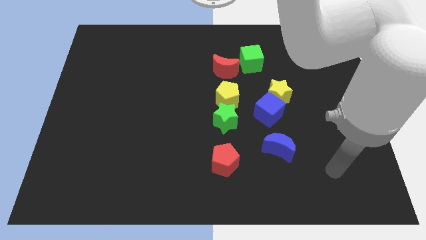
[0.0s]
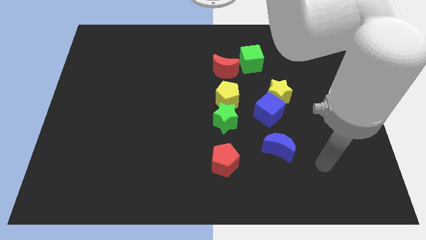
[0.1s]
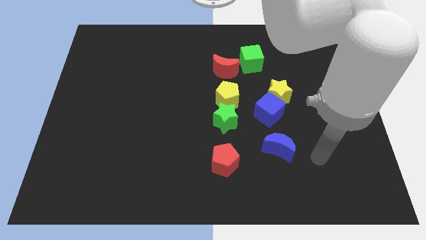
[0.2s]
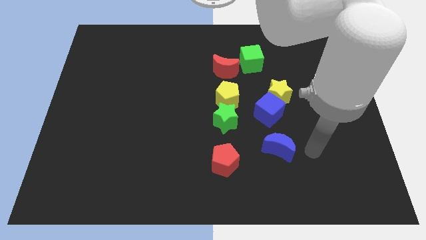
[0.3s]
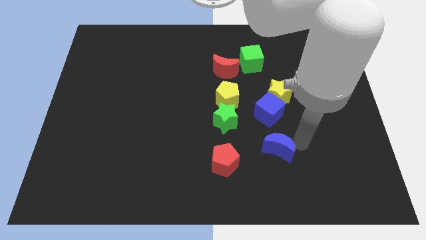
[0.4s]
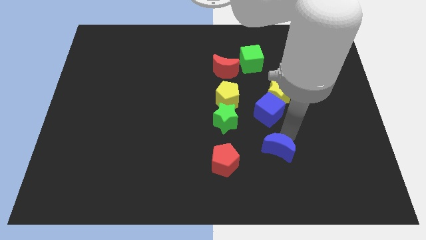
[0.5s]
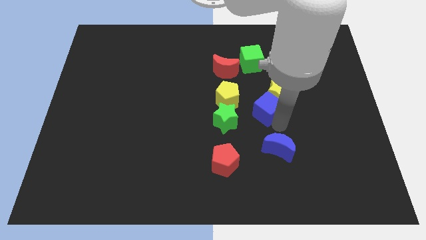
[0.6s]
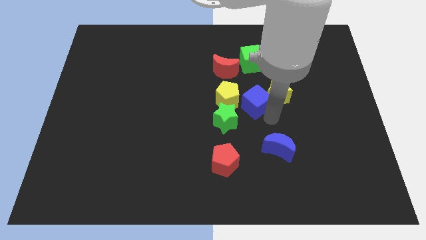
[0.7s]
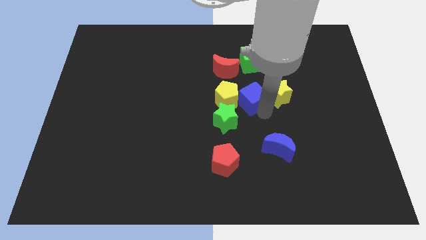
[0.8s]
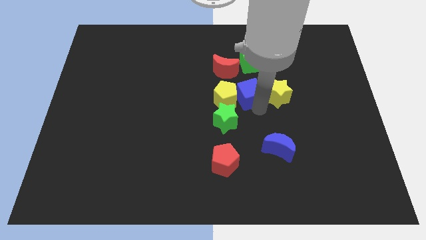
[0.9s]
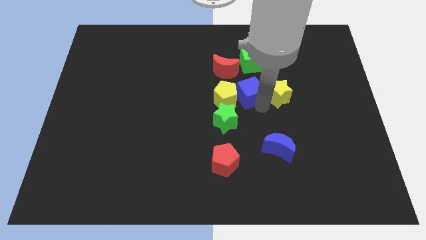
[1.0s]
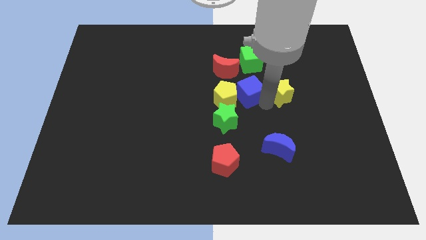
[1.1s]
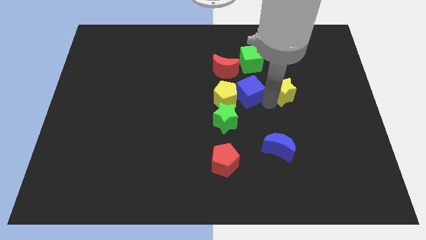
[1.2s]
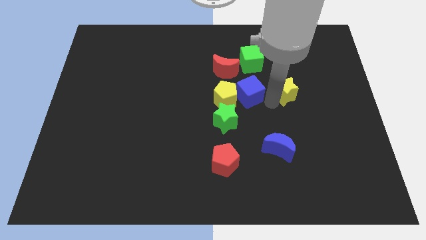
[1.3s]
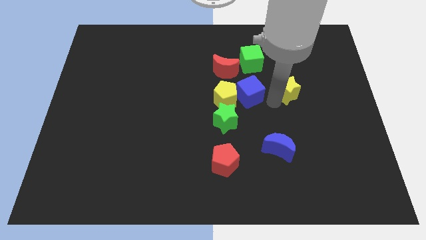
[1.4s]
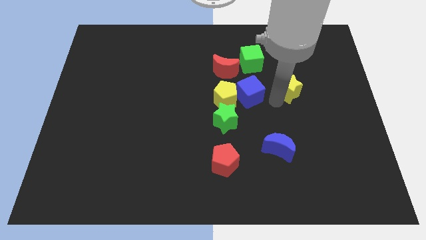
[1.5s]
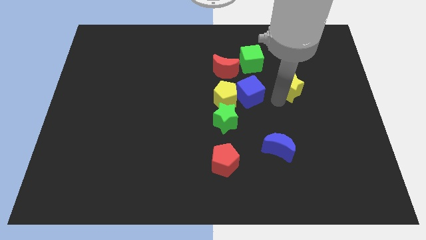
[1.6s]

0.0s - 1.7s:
move the yellow star away from the blue cube

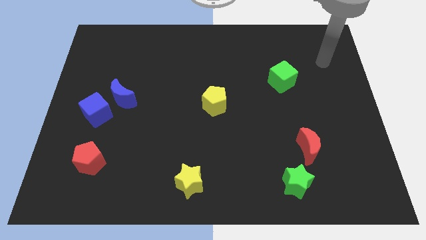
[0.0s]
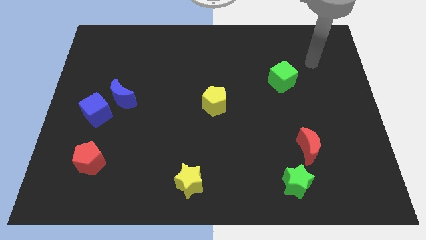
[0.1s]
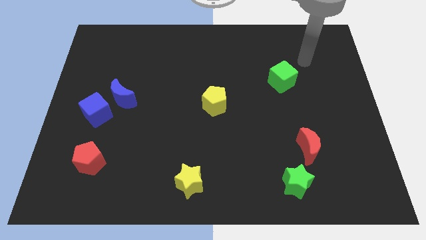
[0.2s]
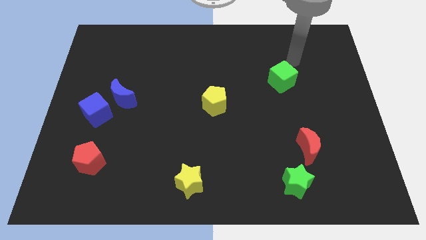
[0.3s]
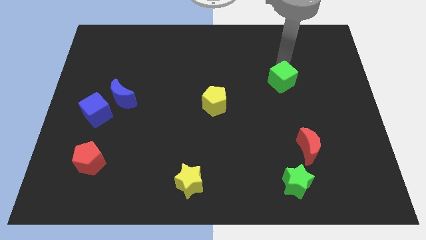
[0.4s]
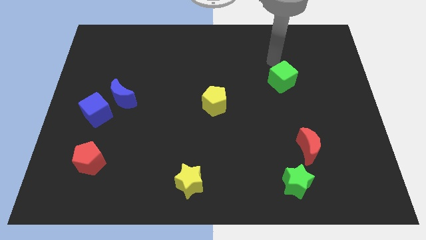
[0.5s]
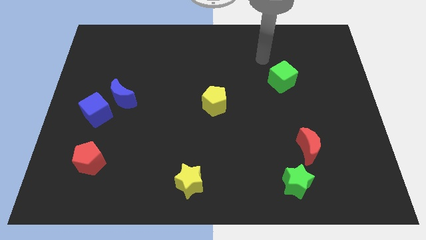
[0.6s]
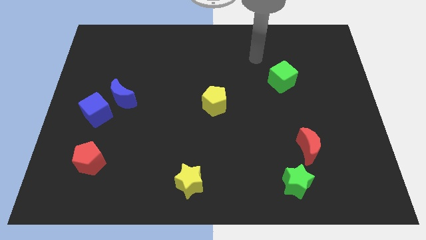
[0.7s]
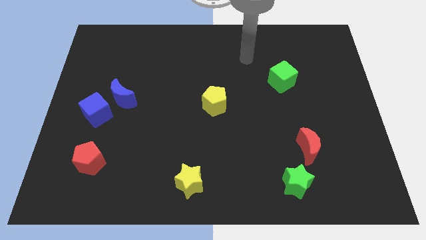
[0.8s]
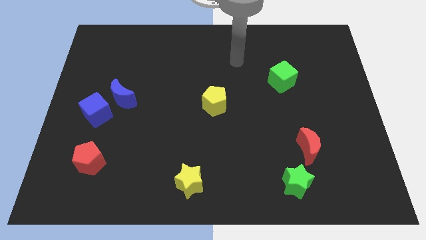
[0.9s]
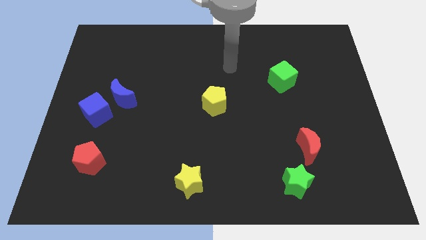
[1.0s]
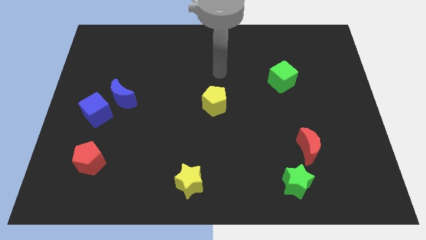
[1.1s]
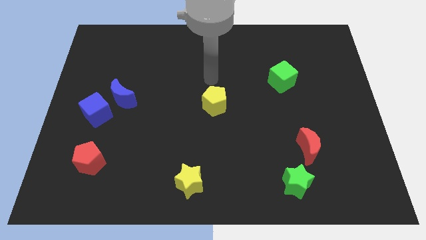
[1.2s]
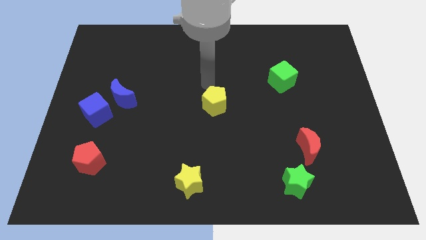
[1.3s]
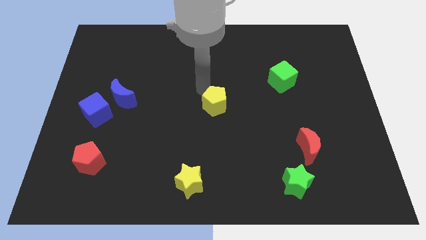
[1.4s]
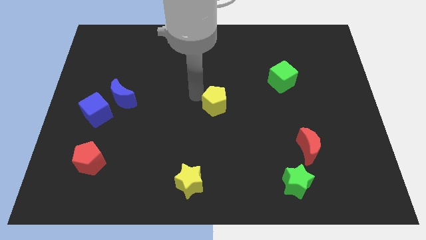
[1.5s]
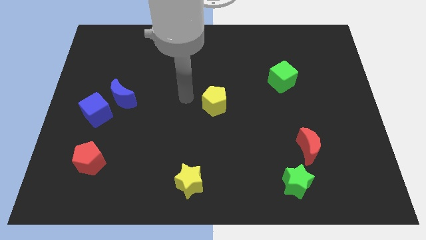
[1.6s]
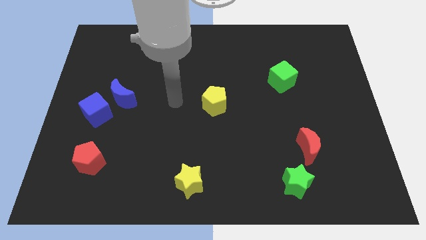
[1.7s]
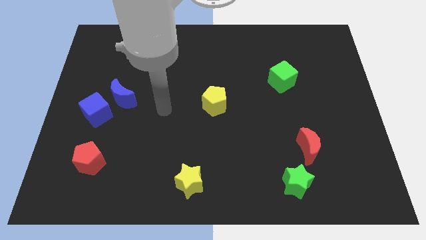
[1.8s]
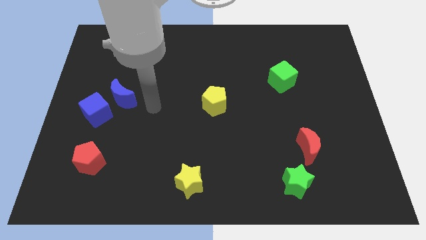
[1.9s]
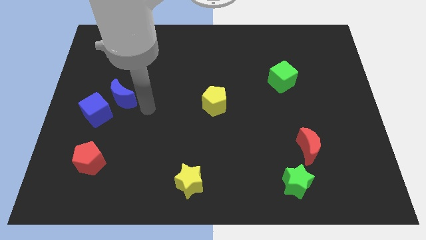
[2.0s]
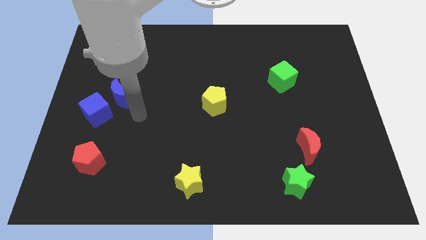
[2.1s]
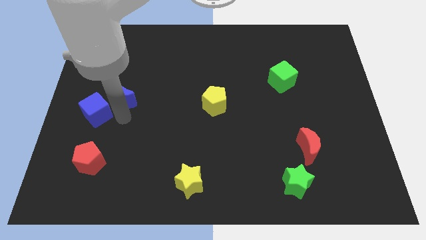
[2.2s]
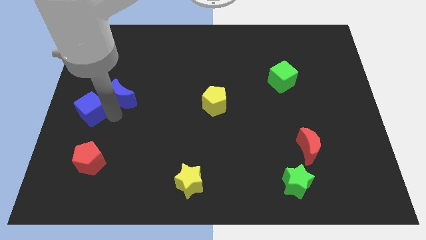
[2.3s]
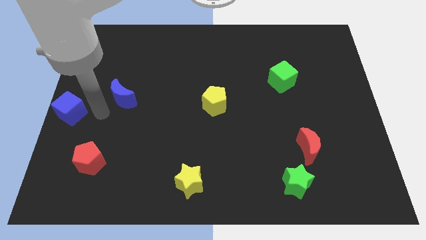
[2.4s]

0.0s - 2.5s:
pull the blue moon apart from the blue cube

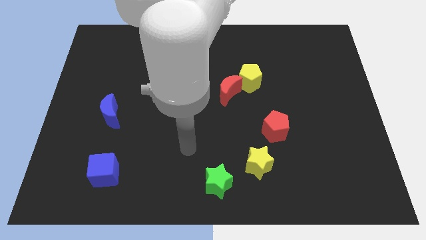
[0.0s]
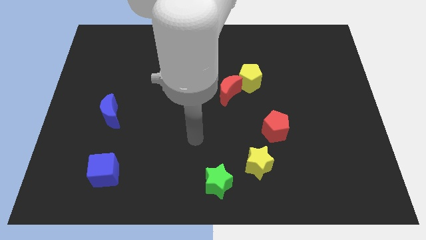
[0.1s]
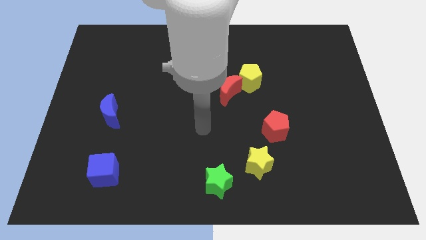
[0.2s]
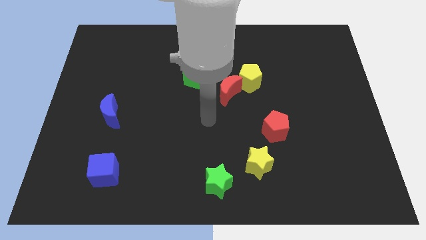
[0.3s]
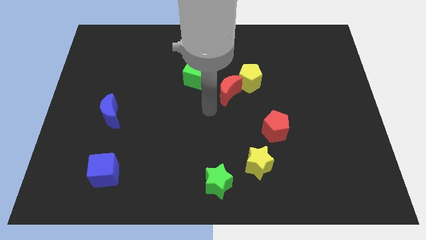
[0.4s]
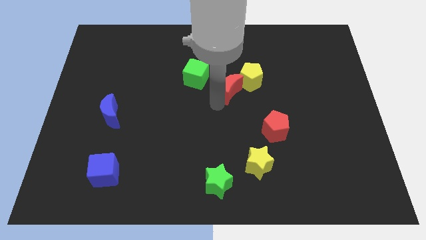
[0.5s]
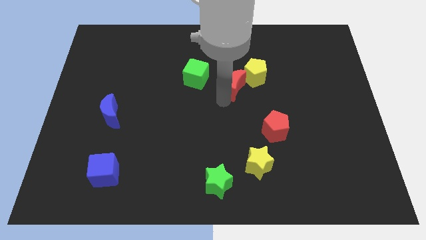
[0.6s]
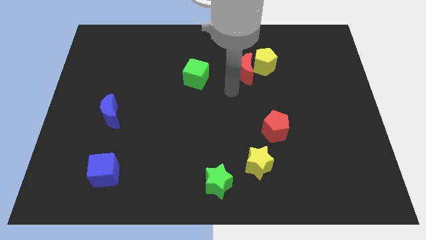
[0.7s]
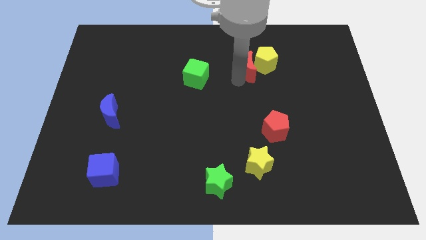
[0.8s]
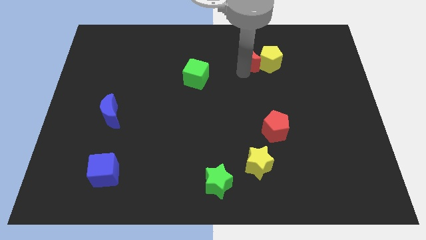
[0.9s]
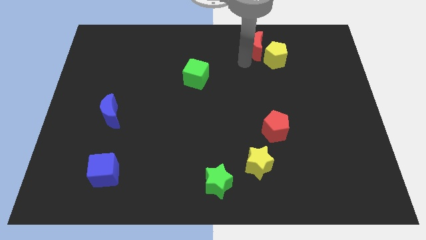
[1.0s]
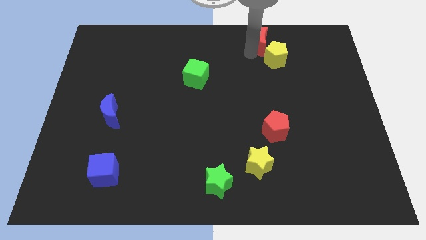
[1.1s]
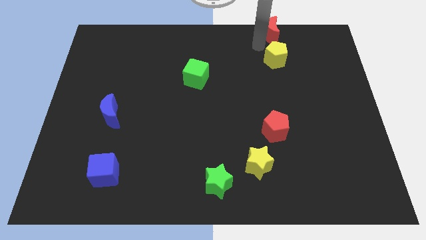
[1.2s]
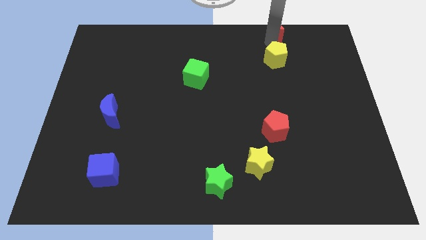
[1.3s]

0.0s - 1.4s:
pull the yellow pentagon apart from the red moon

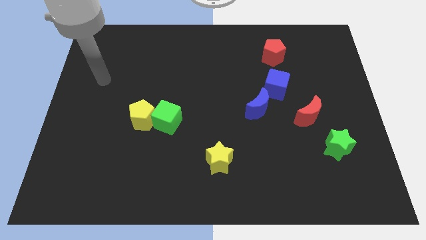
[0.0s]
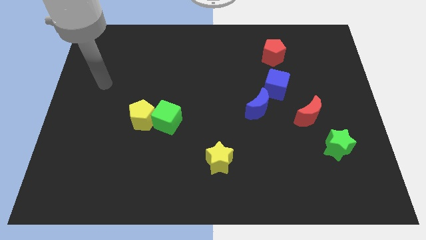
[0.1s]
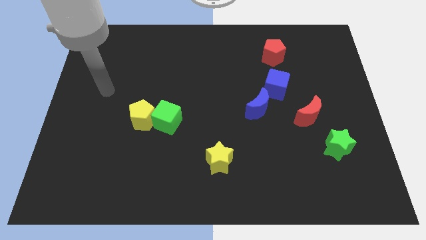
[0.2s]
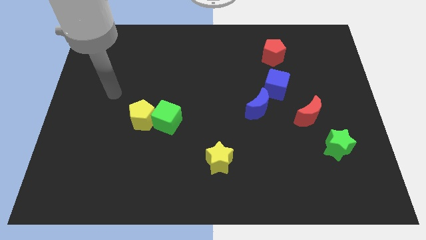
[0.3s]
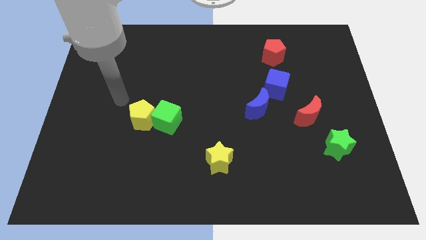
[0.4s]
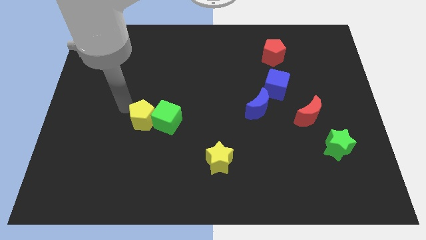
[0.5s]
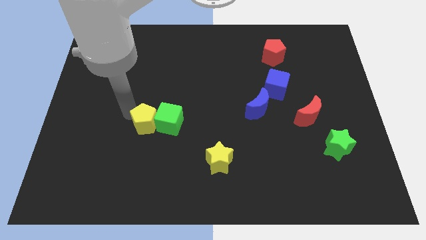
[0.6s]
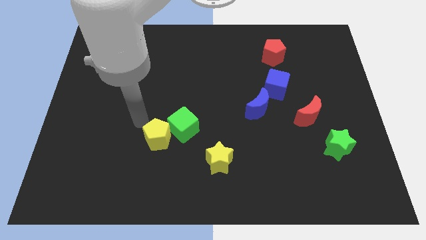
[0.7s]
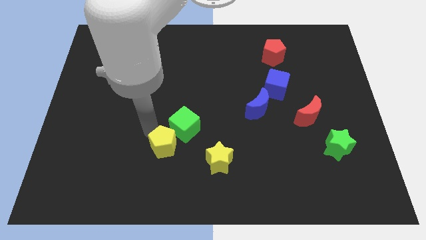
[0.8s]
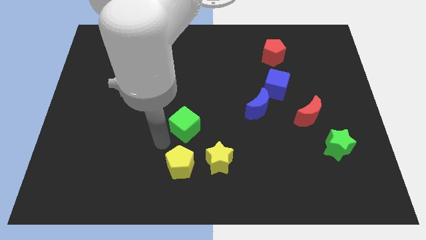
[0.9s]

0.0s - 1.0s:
move the green cube away from the yellow pentagon

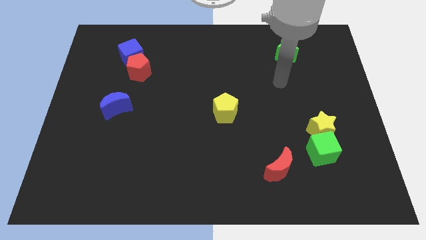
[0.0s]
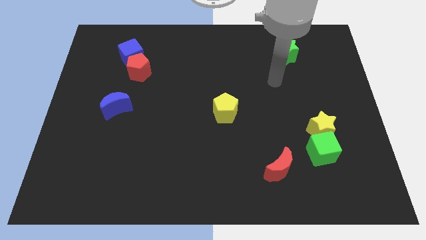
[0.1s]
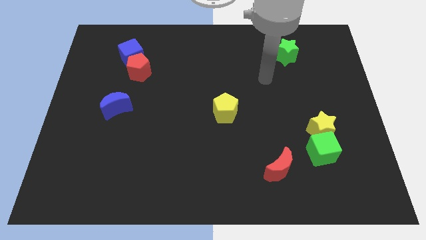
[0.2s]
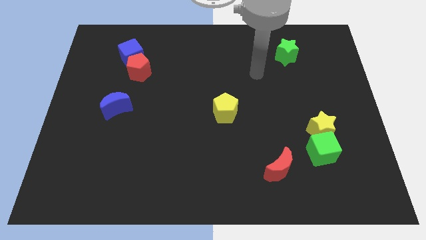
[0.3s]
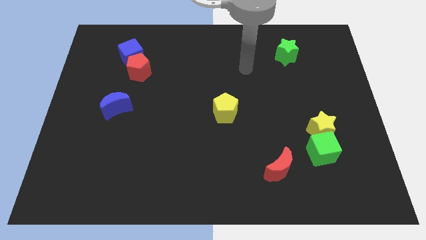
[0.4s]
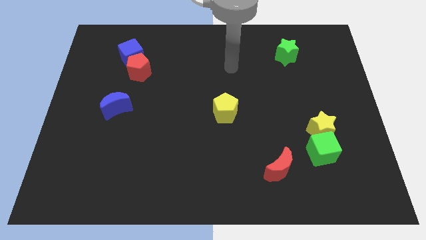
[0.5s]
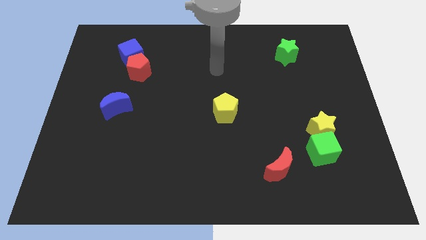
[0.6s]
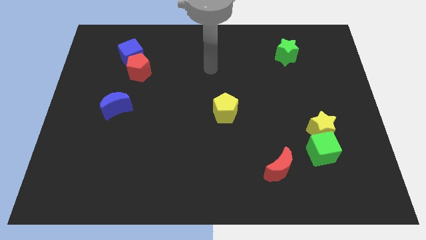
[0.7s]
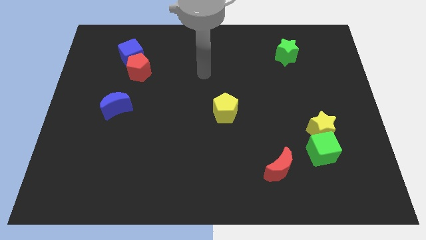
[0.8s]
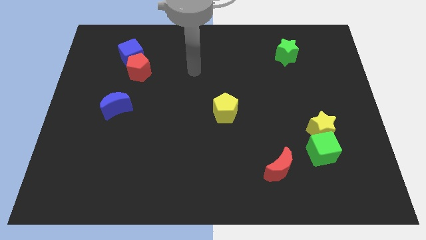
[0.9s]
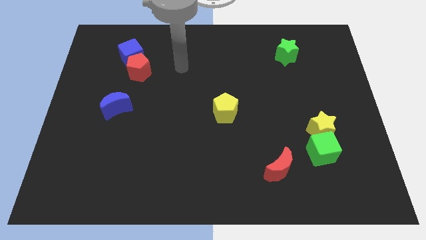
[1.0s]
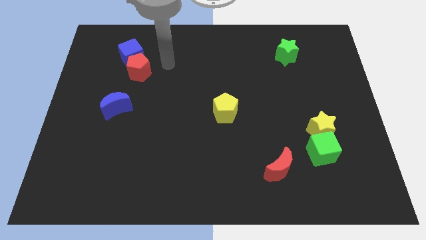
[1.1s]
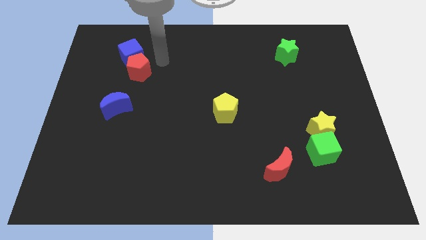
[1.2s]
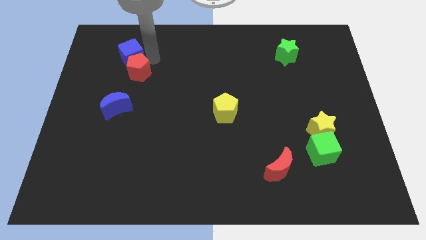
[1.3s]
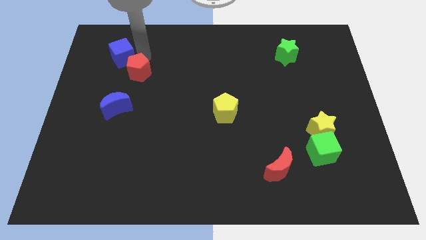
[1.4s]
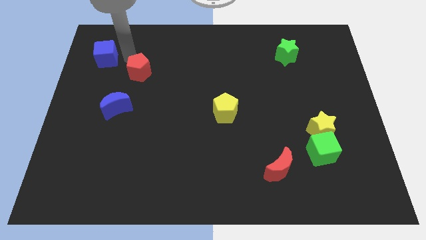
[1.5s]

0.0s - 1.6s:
separate the red pentagon from the blue cube

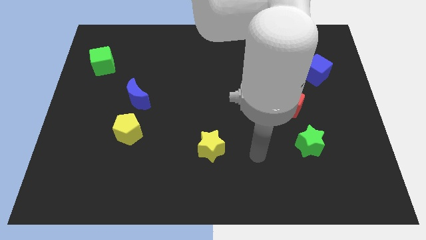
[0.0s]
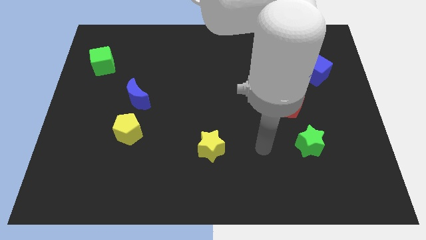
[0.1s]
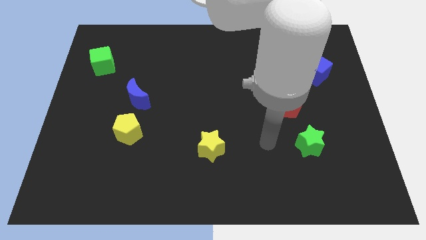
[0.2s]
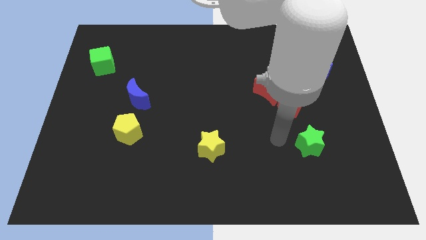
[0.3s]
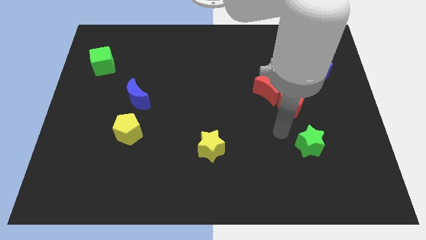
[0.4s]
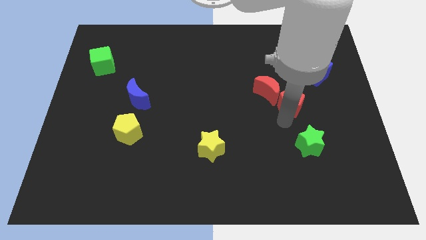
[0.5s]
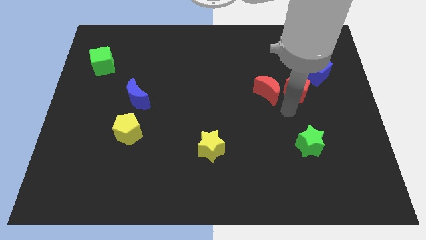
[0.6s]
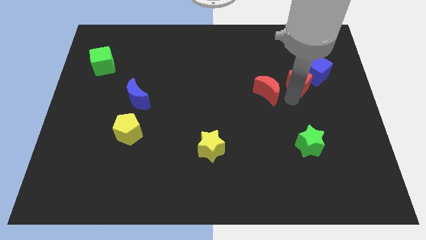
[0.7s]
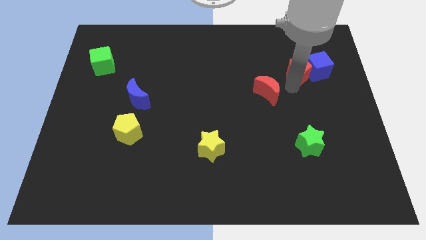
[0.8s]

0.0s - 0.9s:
separate the red moon from the red pentagon
